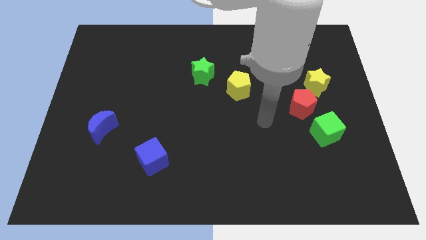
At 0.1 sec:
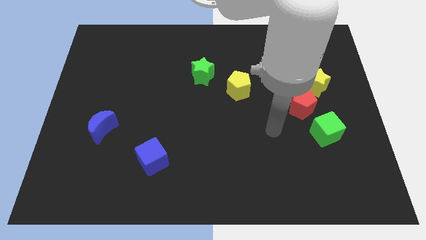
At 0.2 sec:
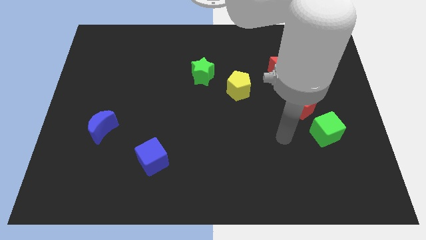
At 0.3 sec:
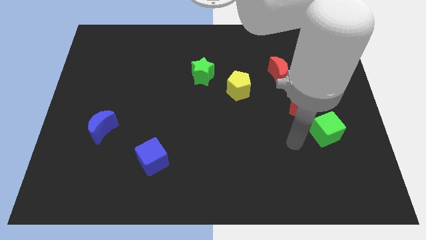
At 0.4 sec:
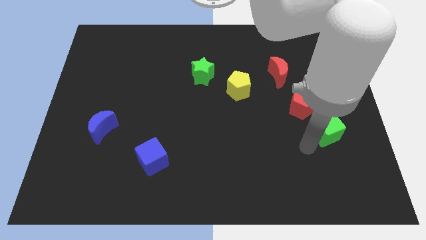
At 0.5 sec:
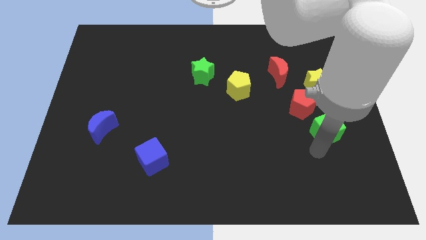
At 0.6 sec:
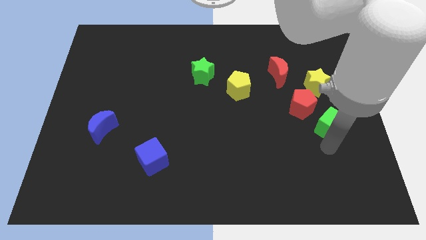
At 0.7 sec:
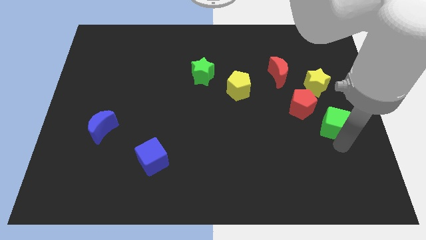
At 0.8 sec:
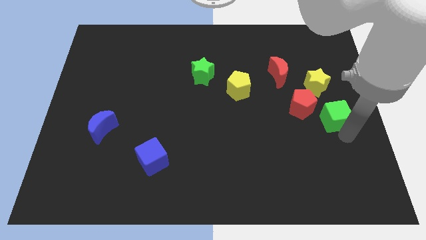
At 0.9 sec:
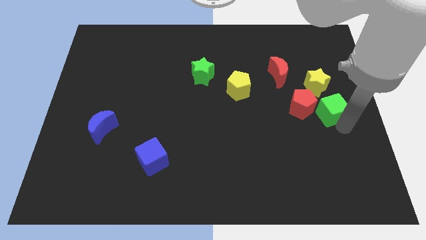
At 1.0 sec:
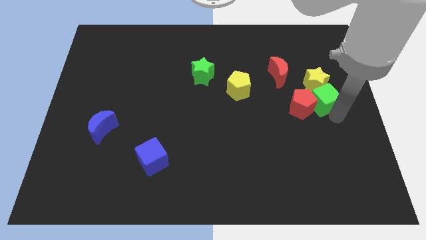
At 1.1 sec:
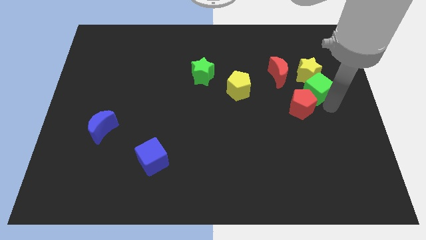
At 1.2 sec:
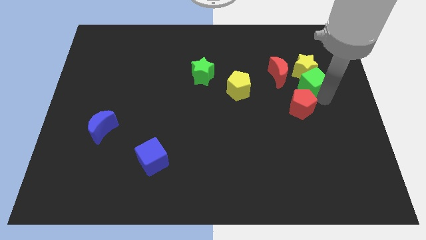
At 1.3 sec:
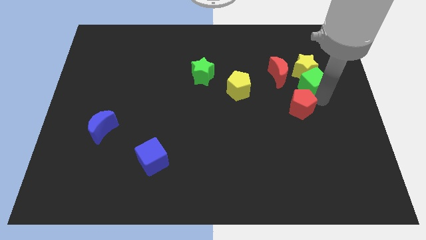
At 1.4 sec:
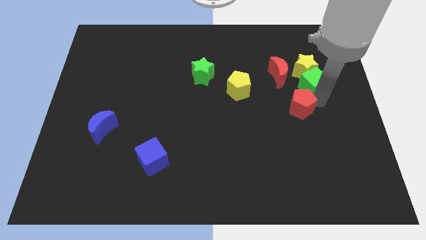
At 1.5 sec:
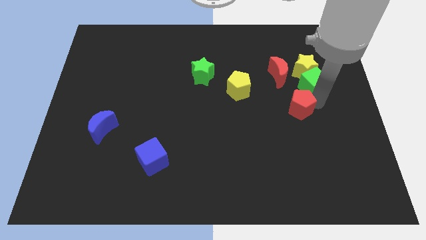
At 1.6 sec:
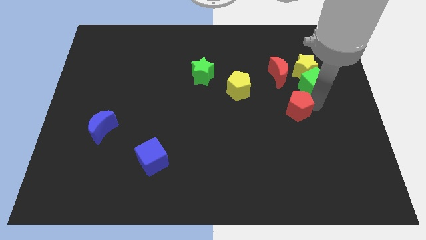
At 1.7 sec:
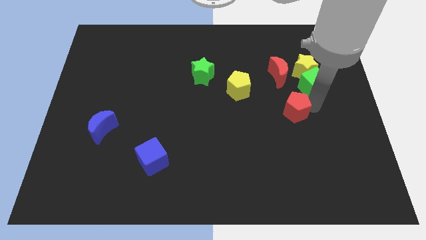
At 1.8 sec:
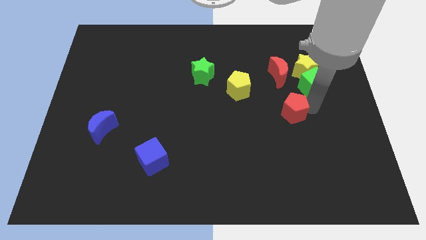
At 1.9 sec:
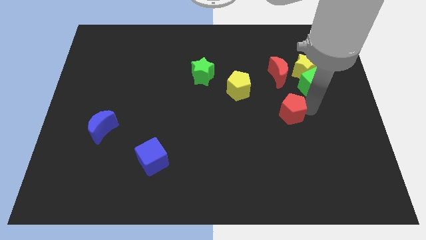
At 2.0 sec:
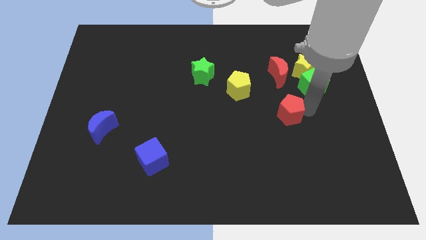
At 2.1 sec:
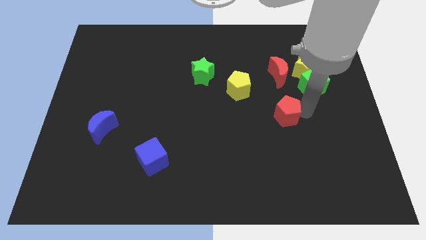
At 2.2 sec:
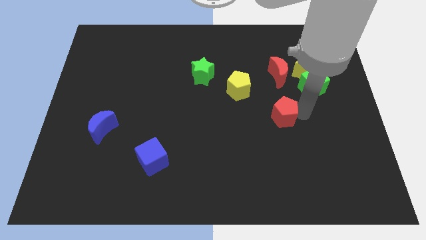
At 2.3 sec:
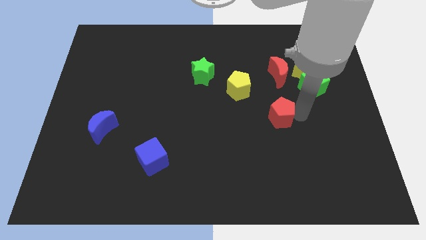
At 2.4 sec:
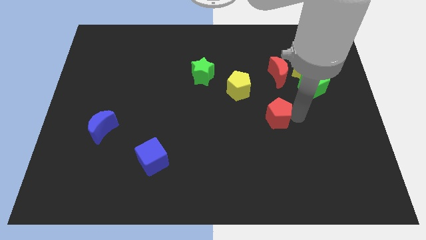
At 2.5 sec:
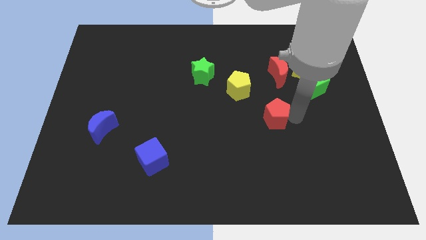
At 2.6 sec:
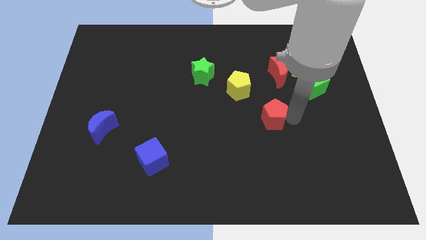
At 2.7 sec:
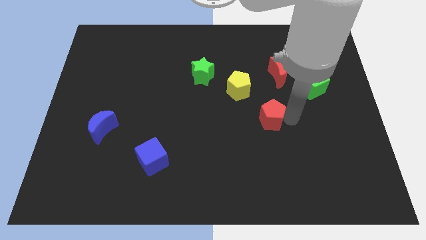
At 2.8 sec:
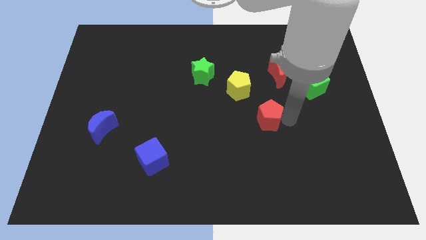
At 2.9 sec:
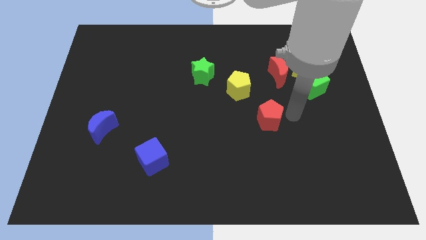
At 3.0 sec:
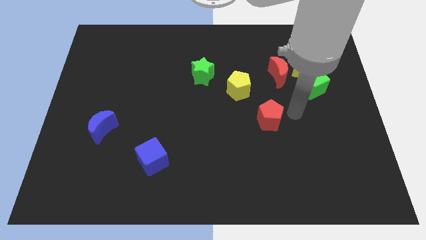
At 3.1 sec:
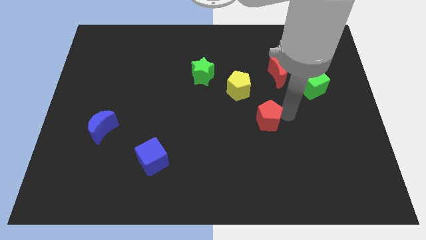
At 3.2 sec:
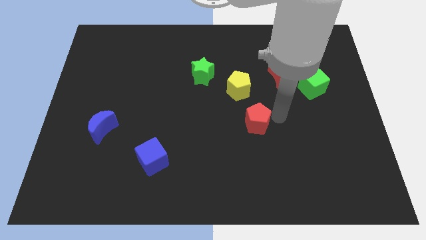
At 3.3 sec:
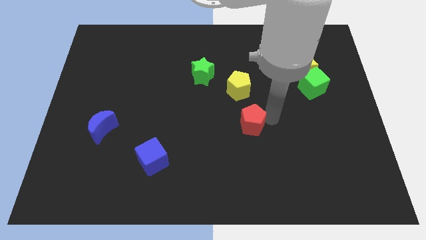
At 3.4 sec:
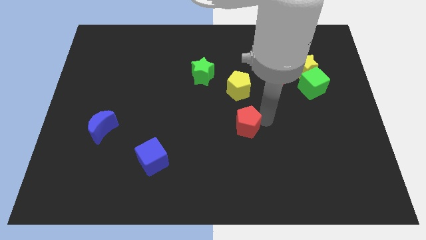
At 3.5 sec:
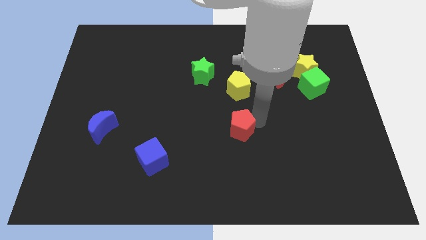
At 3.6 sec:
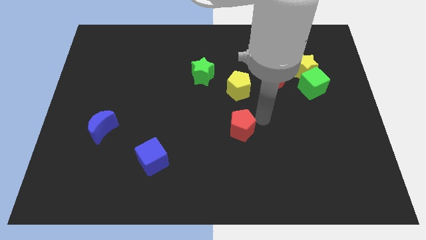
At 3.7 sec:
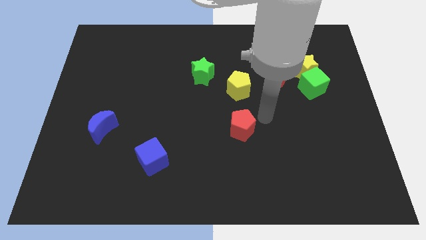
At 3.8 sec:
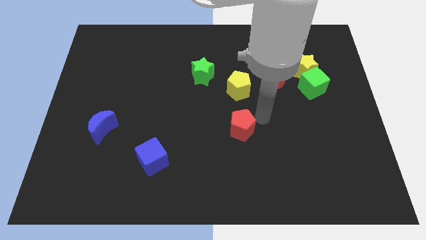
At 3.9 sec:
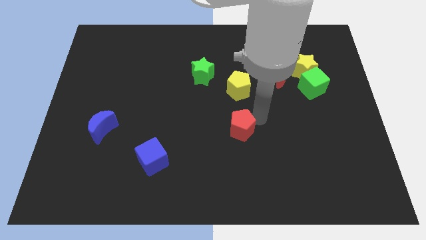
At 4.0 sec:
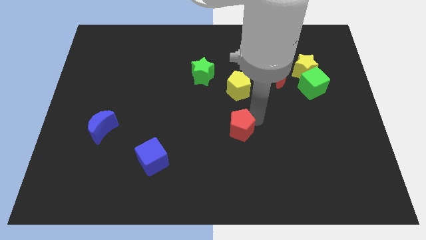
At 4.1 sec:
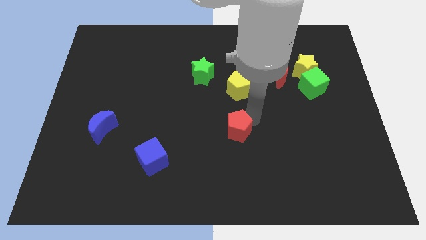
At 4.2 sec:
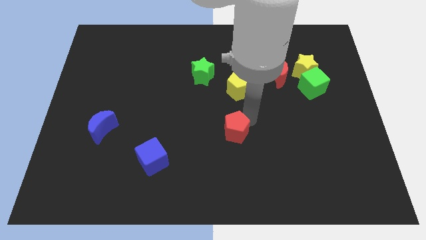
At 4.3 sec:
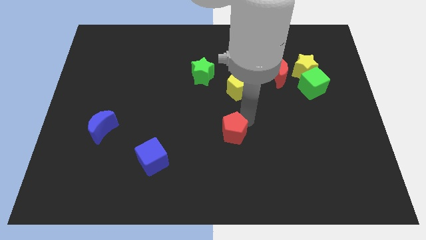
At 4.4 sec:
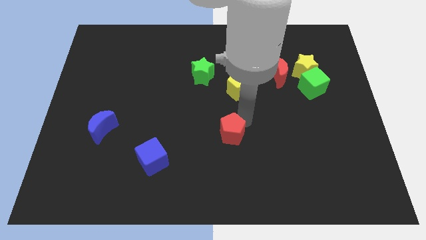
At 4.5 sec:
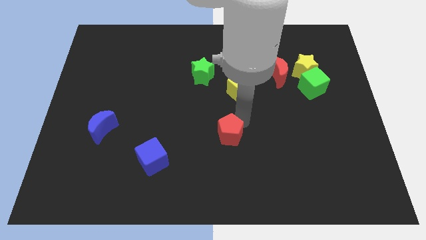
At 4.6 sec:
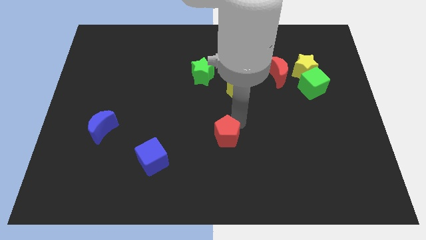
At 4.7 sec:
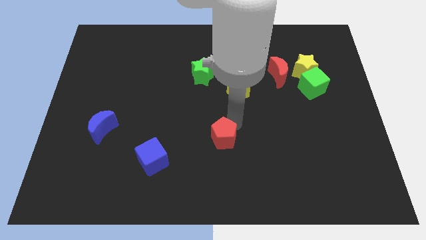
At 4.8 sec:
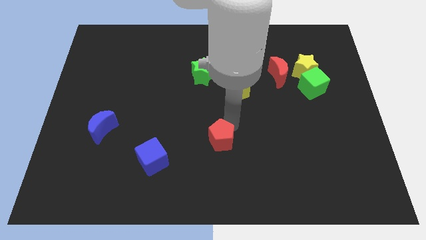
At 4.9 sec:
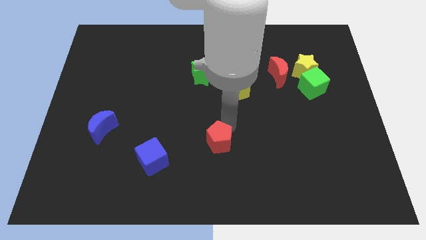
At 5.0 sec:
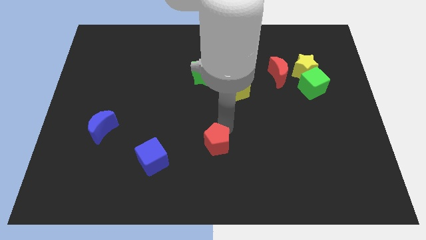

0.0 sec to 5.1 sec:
put the red pentagon right of the blue cube

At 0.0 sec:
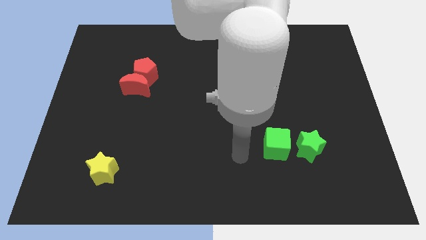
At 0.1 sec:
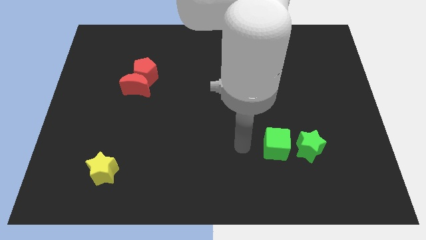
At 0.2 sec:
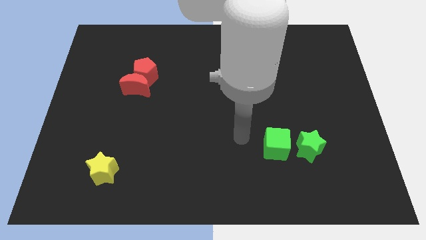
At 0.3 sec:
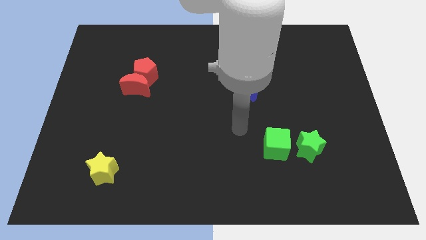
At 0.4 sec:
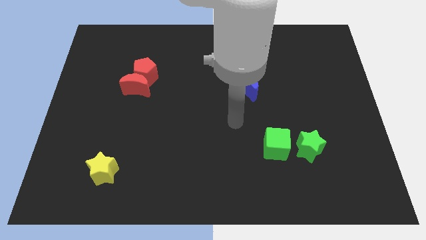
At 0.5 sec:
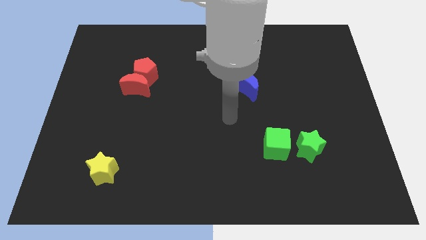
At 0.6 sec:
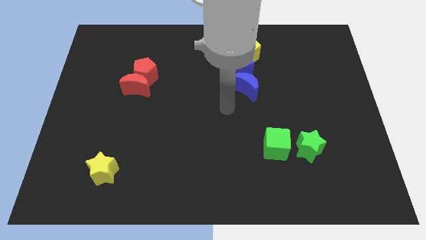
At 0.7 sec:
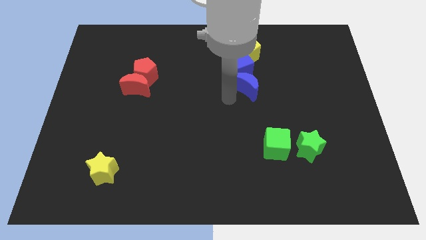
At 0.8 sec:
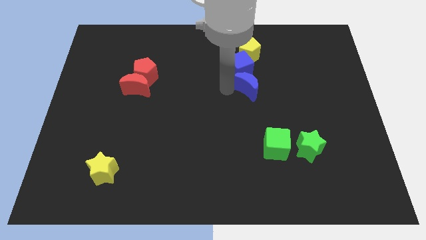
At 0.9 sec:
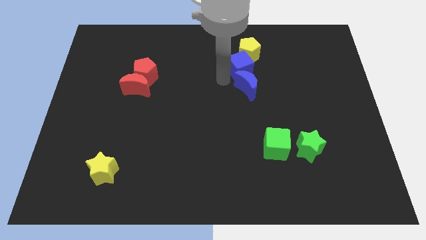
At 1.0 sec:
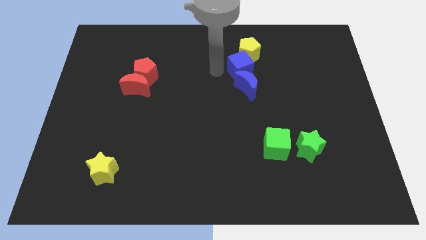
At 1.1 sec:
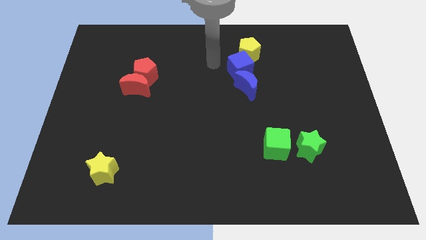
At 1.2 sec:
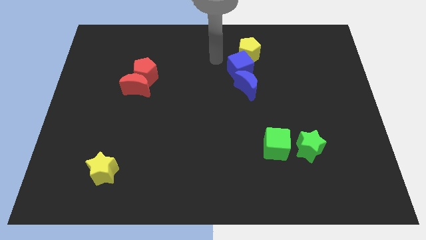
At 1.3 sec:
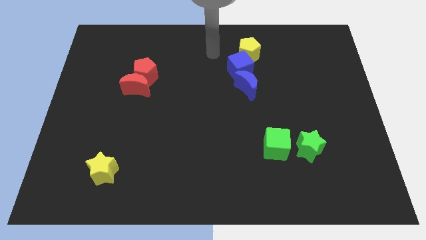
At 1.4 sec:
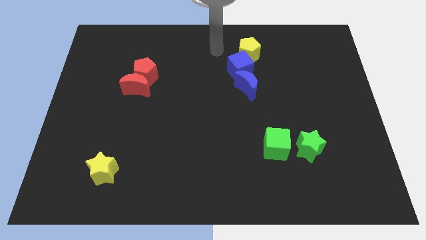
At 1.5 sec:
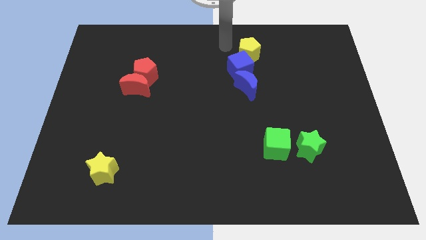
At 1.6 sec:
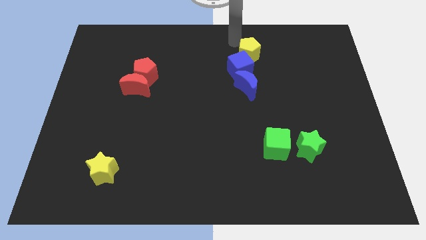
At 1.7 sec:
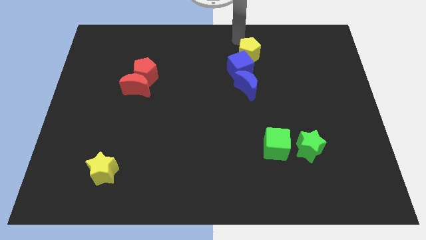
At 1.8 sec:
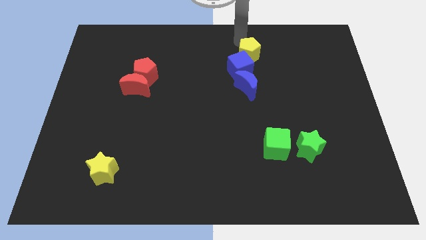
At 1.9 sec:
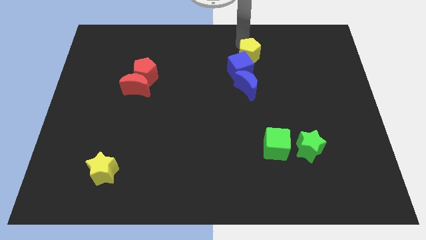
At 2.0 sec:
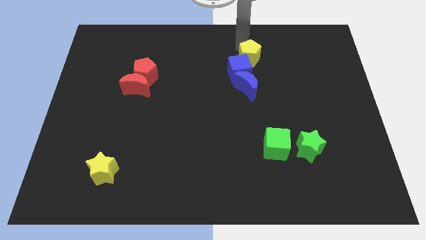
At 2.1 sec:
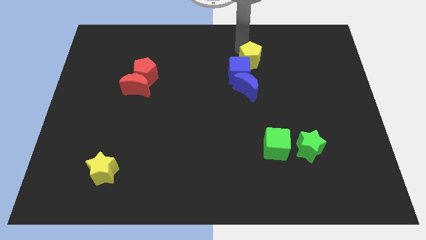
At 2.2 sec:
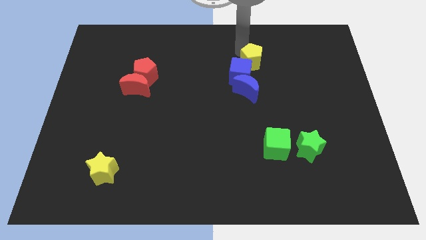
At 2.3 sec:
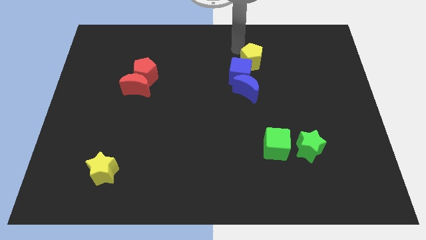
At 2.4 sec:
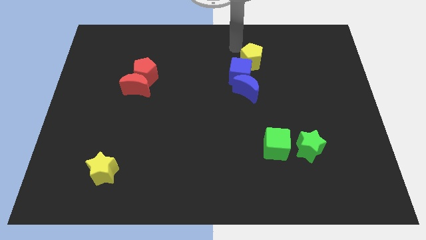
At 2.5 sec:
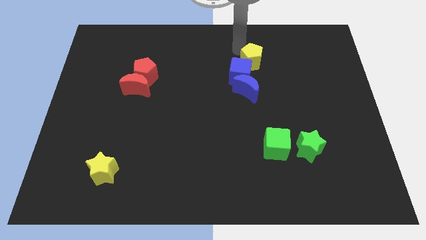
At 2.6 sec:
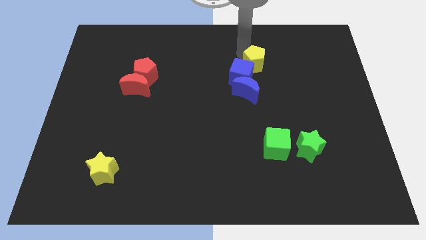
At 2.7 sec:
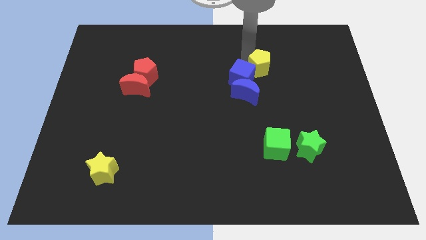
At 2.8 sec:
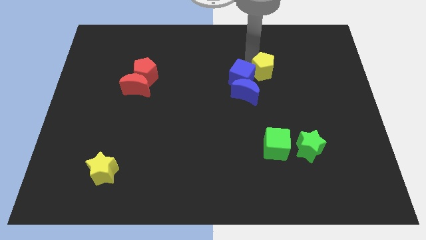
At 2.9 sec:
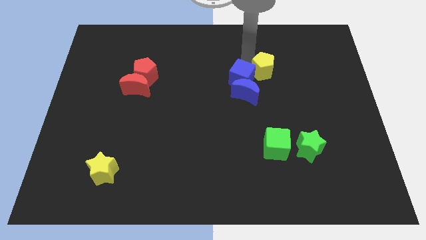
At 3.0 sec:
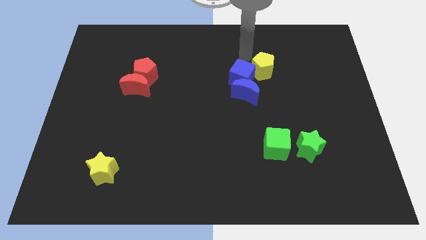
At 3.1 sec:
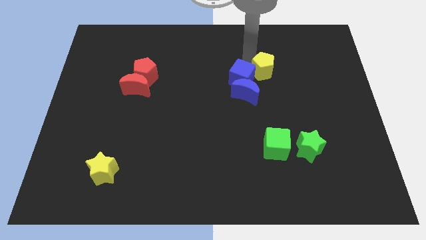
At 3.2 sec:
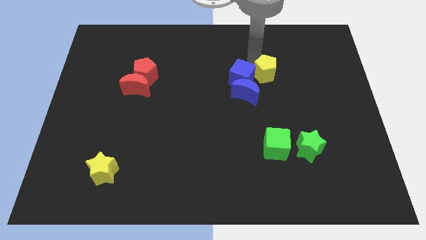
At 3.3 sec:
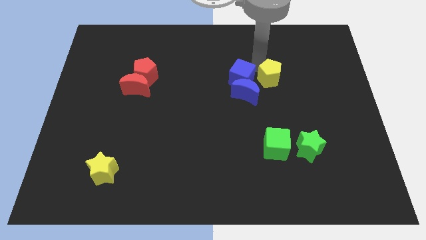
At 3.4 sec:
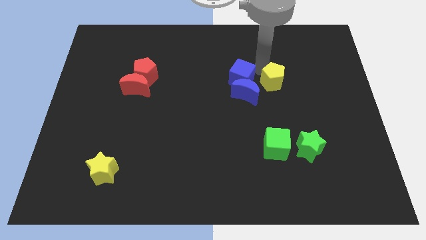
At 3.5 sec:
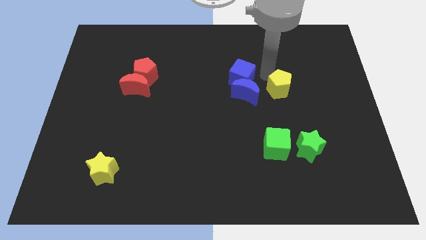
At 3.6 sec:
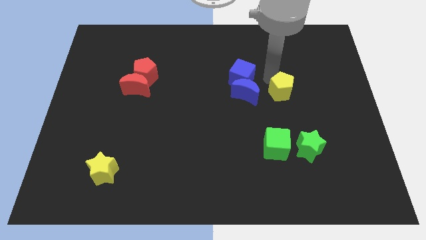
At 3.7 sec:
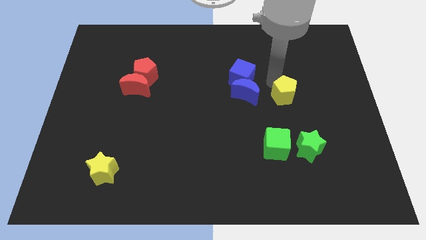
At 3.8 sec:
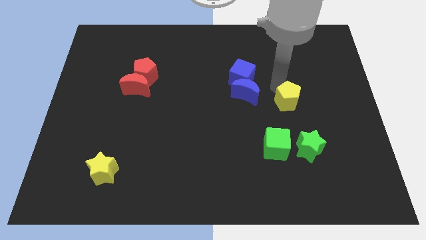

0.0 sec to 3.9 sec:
slide the yellow pentagon to the top side of the green star
